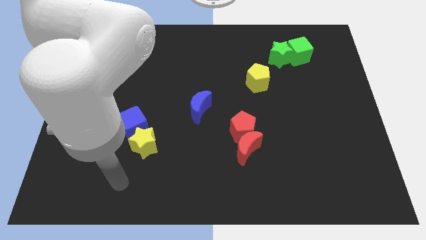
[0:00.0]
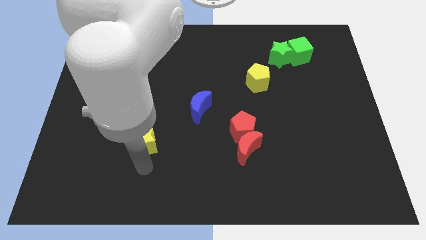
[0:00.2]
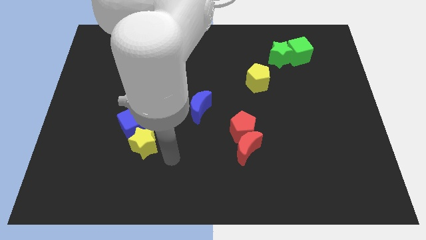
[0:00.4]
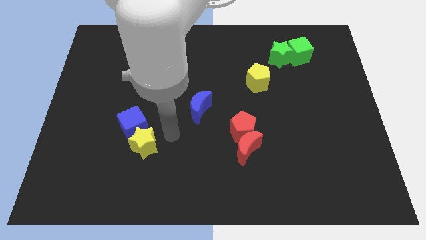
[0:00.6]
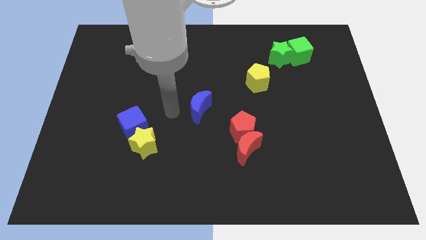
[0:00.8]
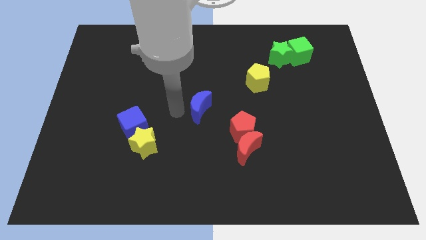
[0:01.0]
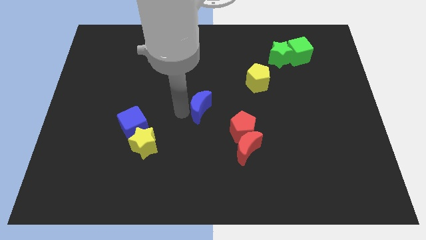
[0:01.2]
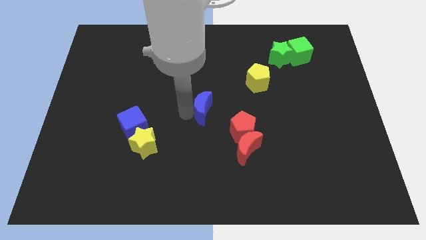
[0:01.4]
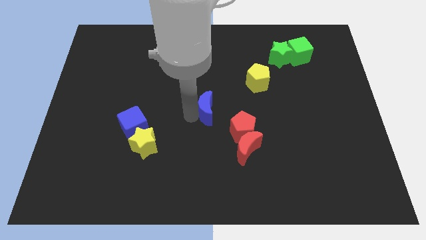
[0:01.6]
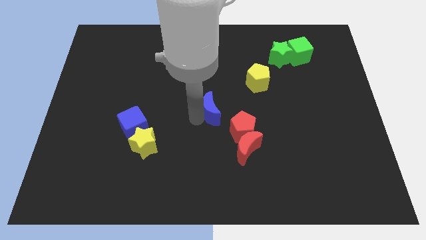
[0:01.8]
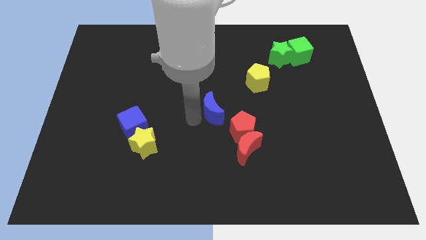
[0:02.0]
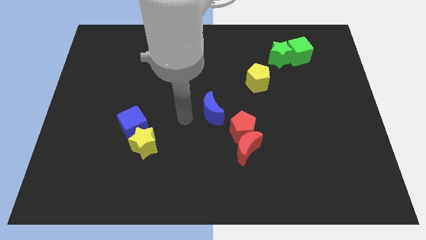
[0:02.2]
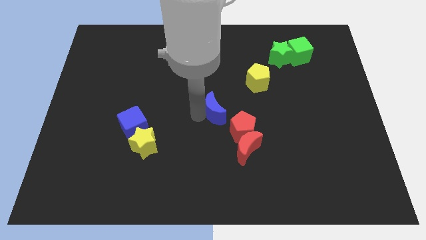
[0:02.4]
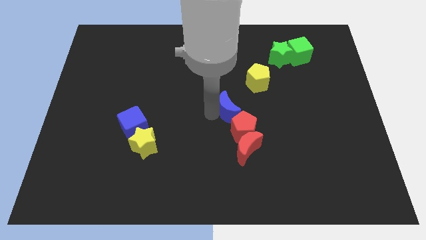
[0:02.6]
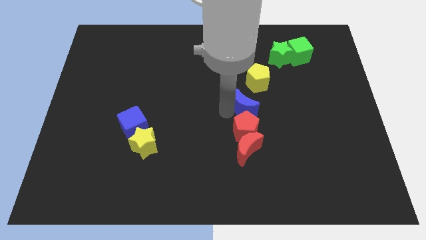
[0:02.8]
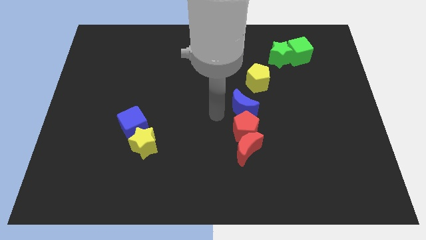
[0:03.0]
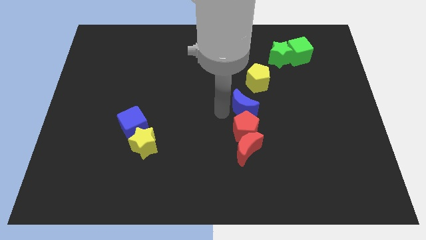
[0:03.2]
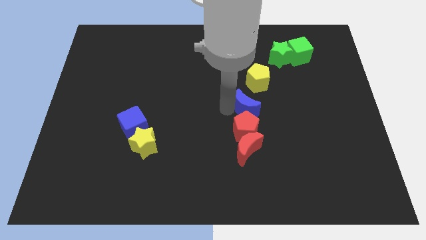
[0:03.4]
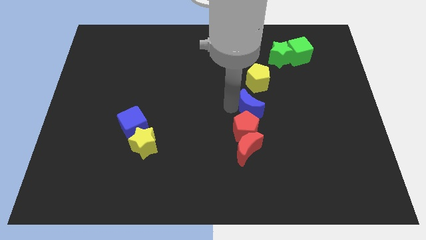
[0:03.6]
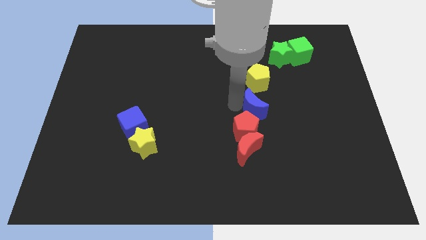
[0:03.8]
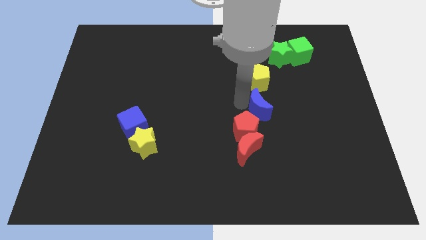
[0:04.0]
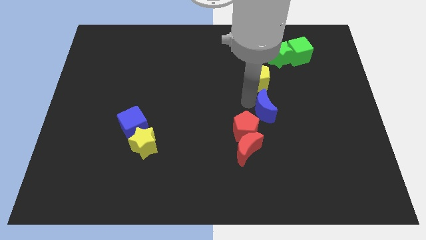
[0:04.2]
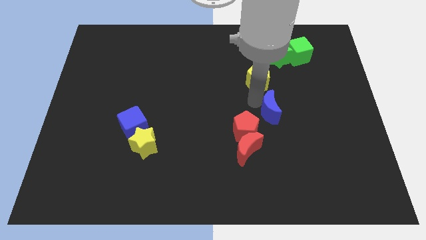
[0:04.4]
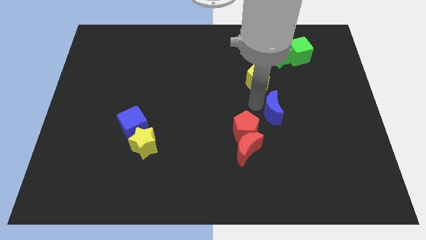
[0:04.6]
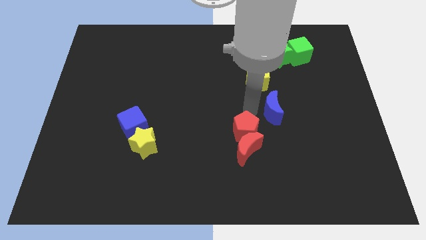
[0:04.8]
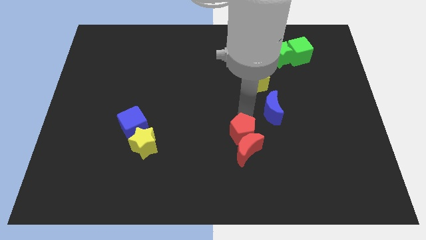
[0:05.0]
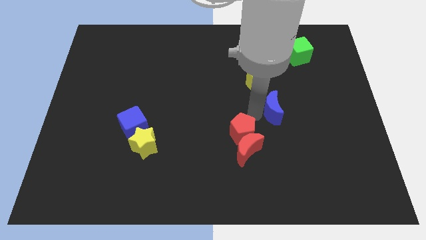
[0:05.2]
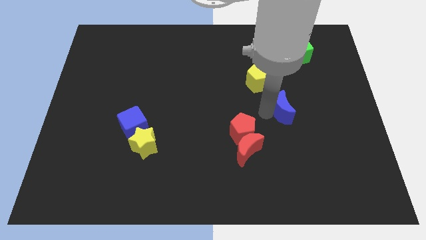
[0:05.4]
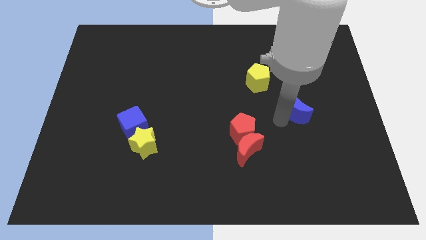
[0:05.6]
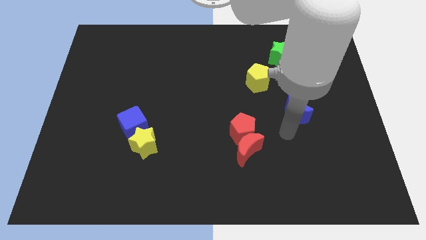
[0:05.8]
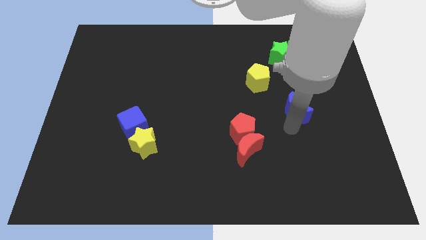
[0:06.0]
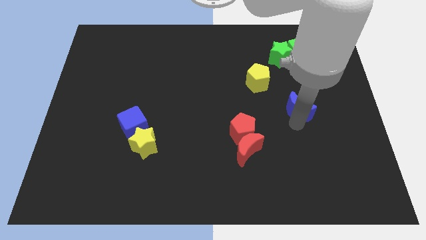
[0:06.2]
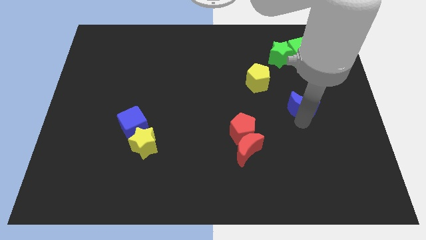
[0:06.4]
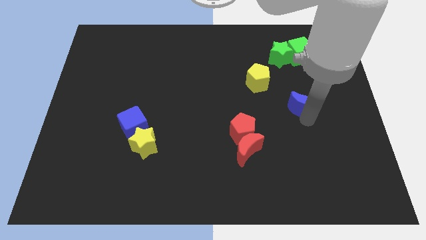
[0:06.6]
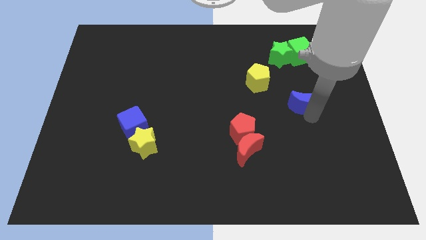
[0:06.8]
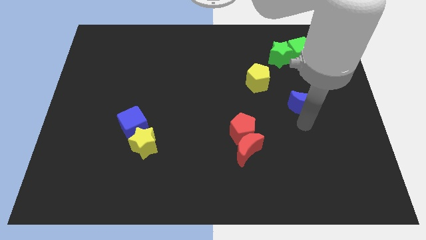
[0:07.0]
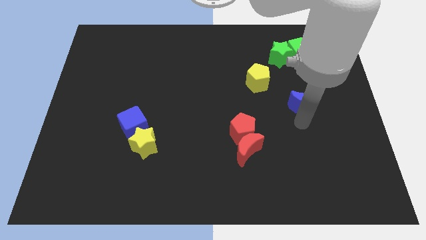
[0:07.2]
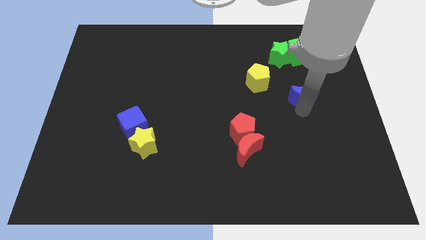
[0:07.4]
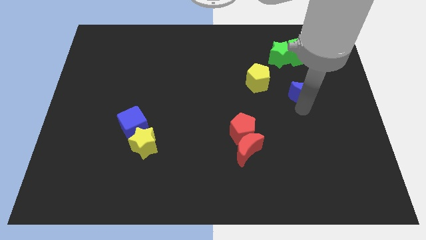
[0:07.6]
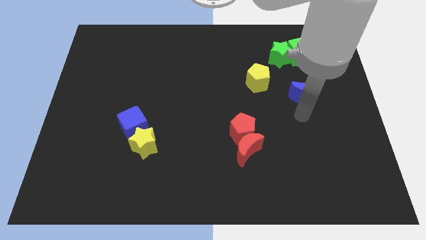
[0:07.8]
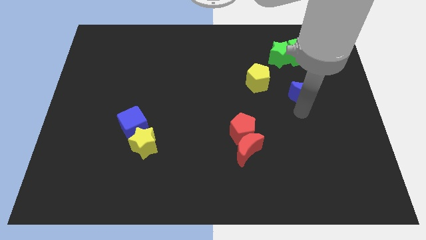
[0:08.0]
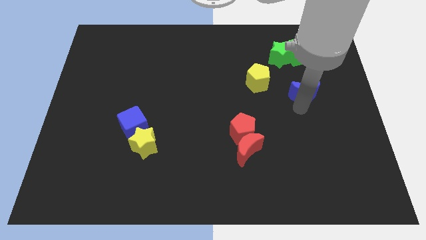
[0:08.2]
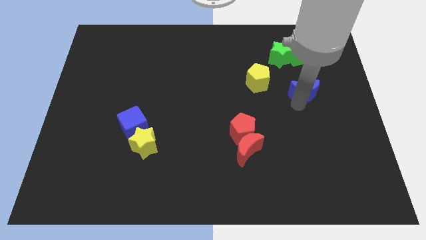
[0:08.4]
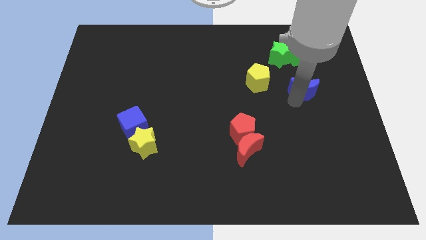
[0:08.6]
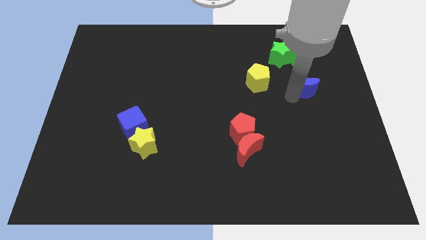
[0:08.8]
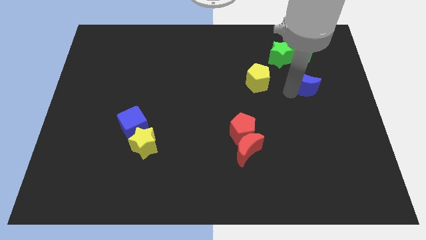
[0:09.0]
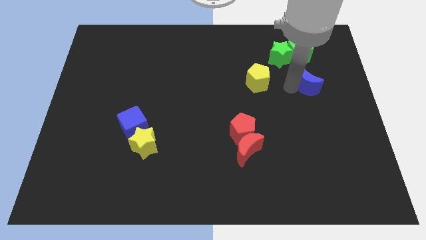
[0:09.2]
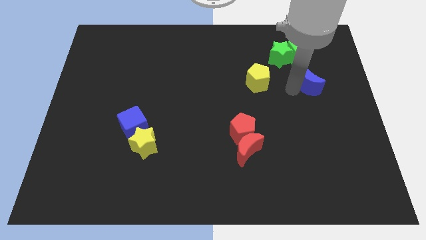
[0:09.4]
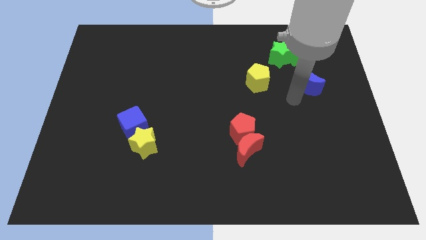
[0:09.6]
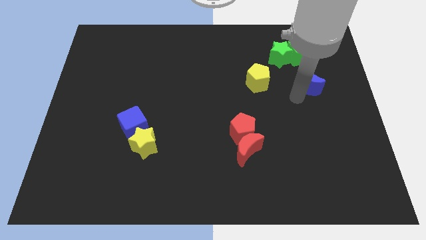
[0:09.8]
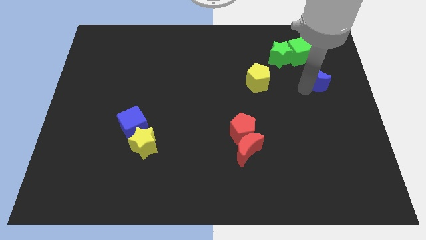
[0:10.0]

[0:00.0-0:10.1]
slide the blue moon to the bottom right side of the green cube

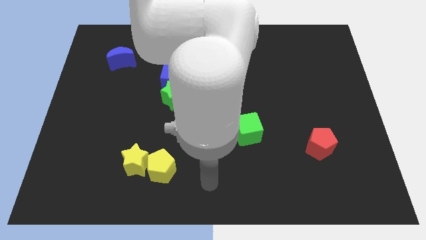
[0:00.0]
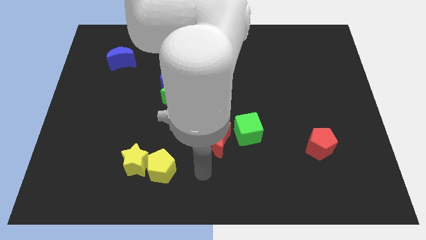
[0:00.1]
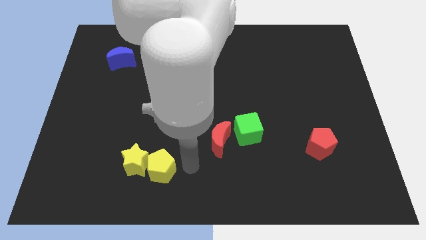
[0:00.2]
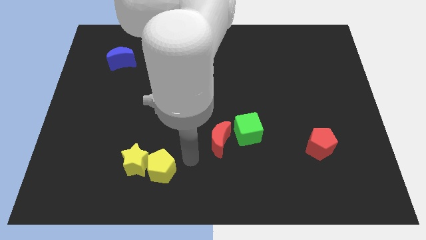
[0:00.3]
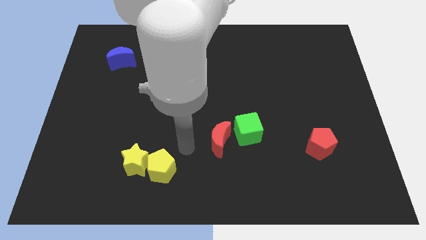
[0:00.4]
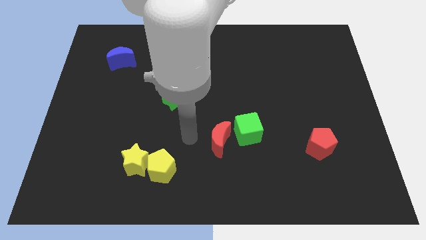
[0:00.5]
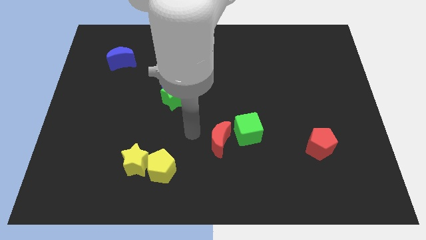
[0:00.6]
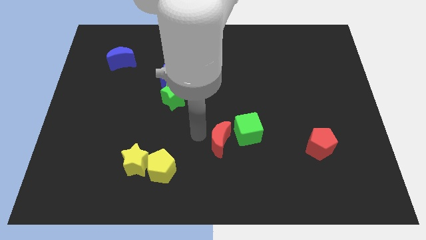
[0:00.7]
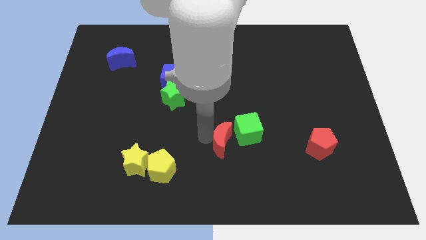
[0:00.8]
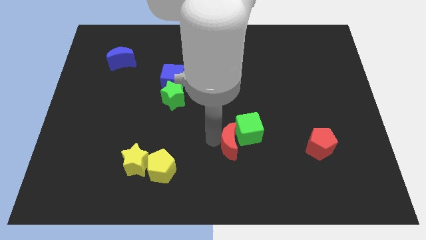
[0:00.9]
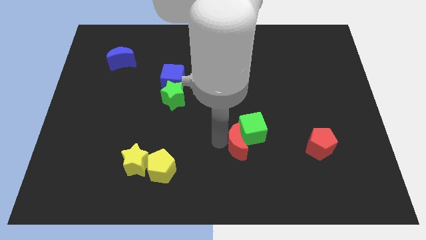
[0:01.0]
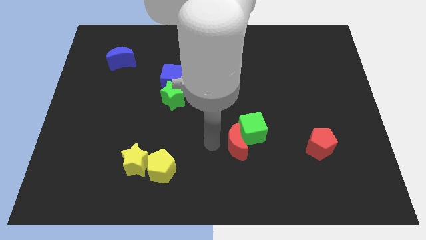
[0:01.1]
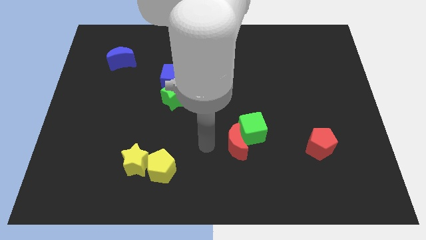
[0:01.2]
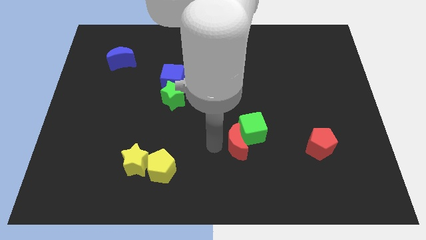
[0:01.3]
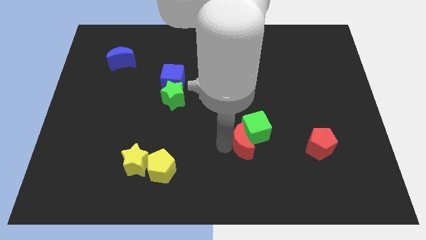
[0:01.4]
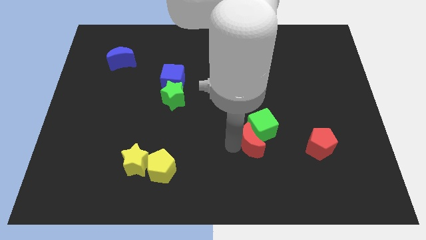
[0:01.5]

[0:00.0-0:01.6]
push the red moon to the left side of the red pentagon
